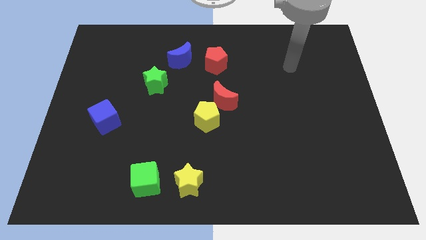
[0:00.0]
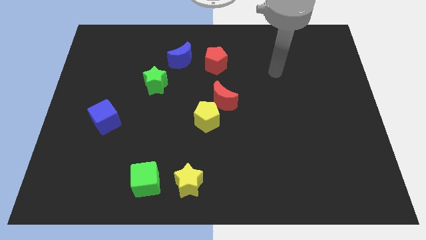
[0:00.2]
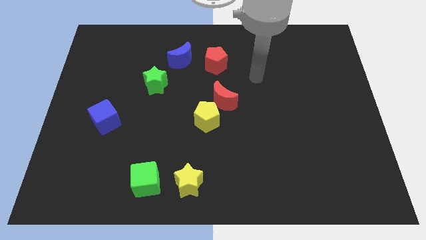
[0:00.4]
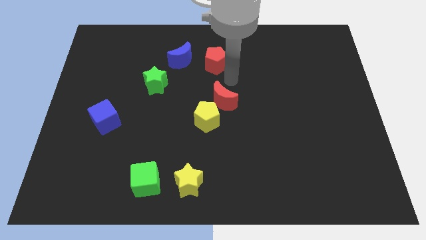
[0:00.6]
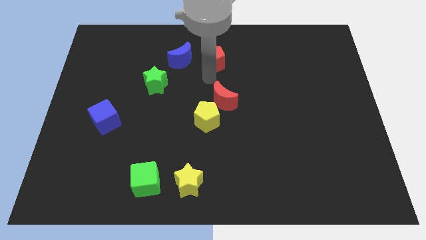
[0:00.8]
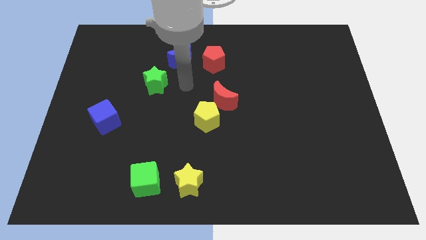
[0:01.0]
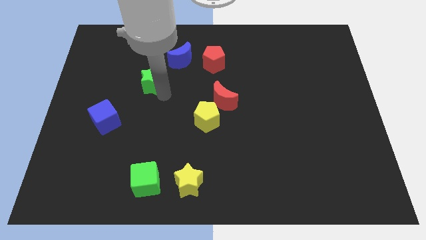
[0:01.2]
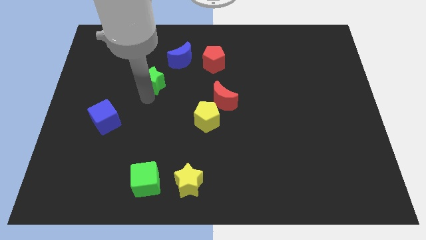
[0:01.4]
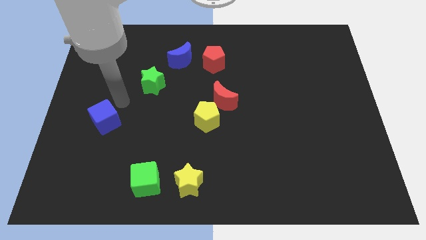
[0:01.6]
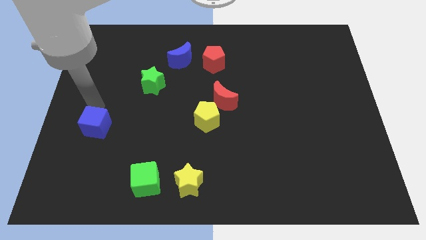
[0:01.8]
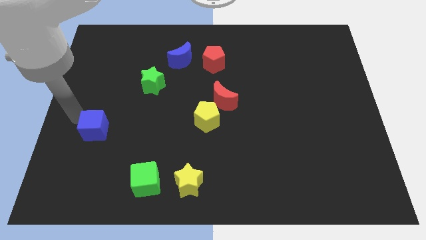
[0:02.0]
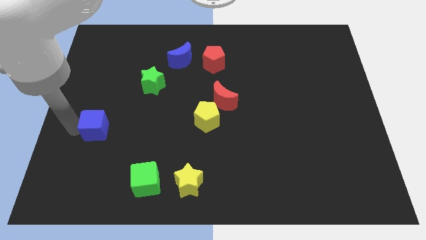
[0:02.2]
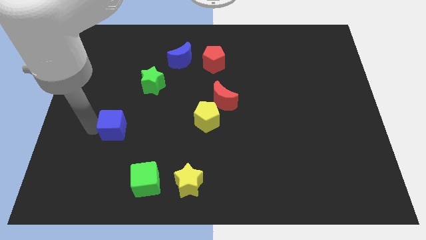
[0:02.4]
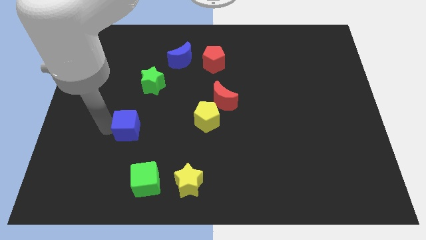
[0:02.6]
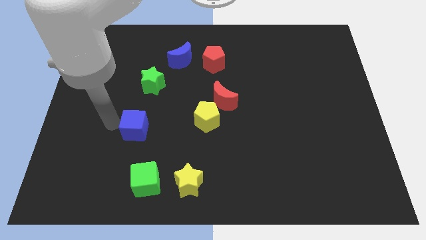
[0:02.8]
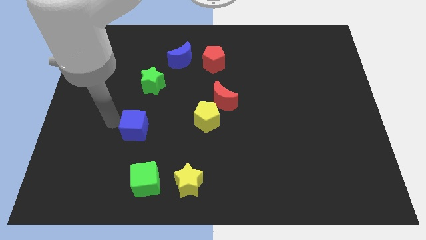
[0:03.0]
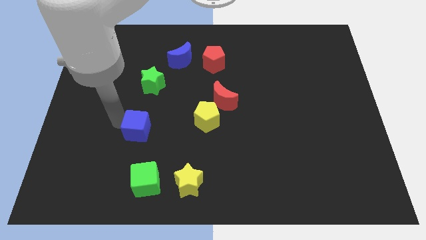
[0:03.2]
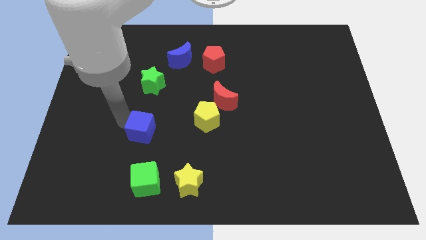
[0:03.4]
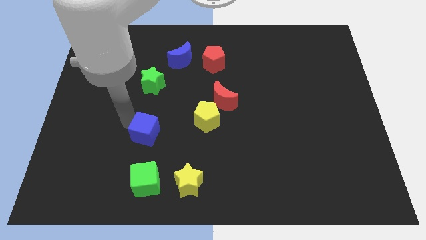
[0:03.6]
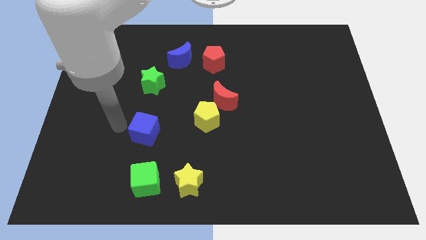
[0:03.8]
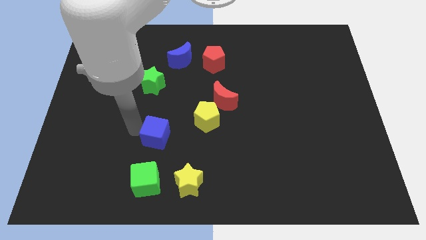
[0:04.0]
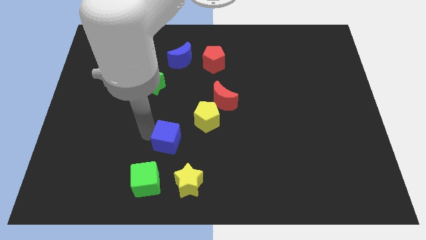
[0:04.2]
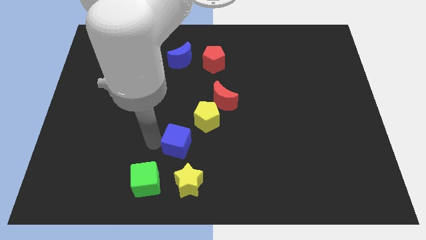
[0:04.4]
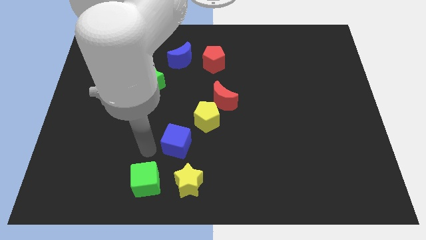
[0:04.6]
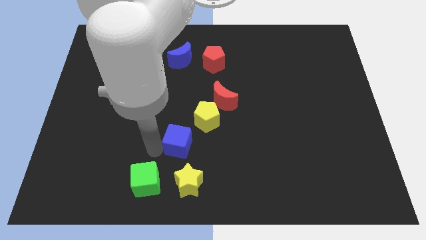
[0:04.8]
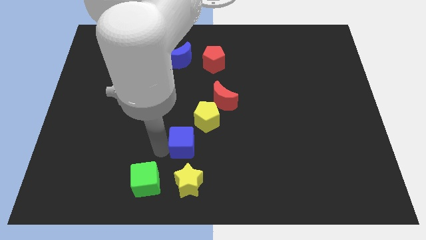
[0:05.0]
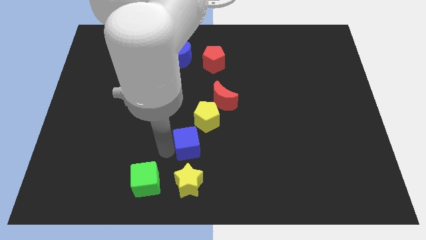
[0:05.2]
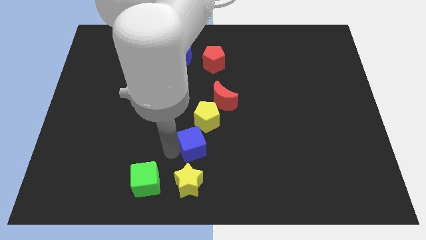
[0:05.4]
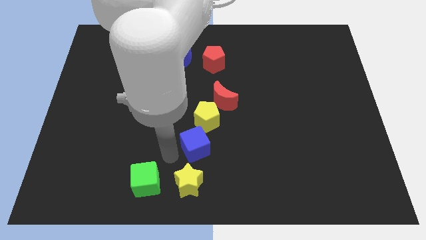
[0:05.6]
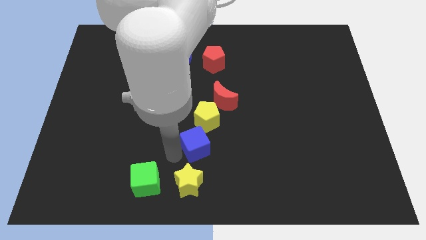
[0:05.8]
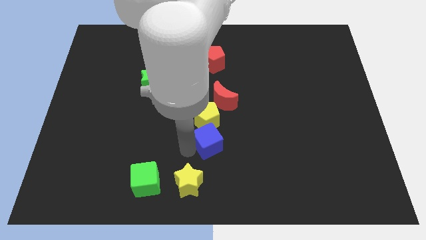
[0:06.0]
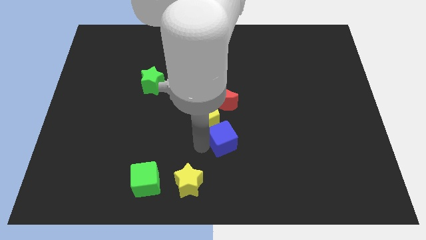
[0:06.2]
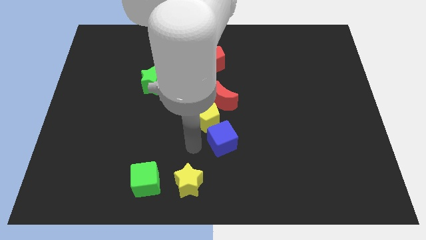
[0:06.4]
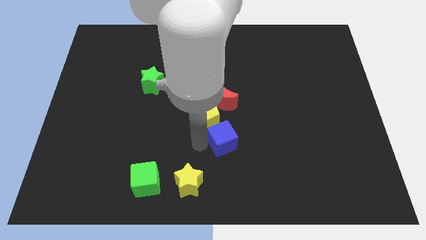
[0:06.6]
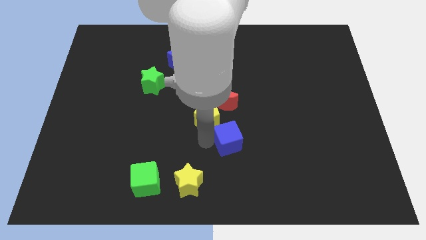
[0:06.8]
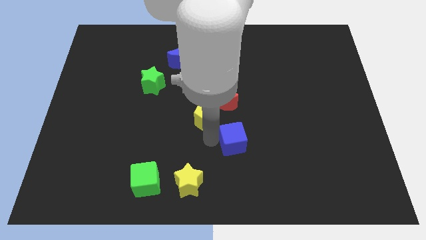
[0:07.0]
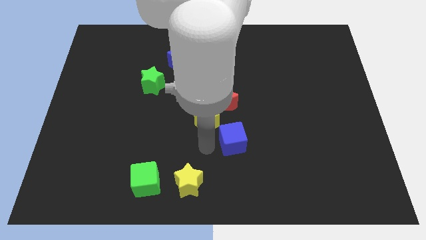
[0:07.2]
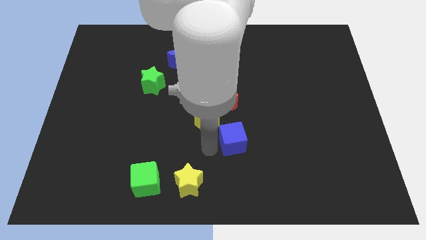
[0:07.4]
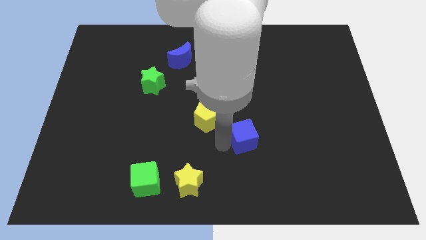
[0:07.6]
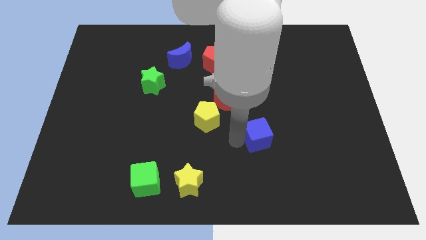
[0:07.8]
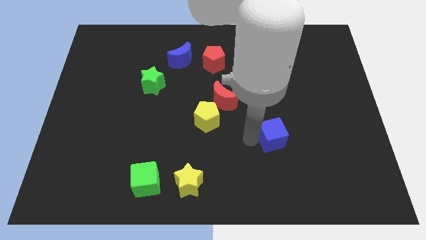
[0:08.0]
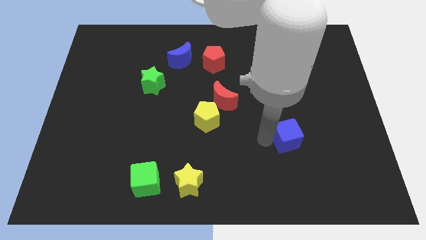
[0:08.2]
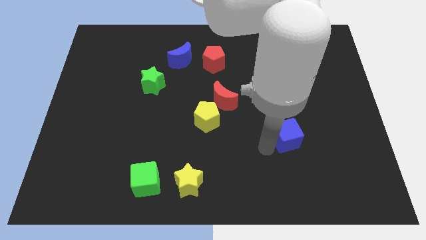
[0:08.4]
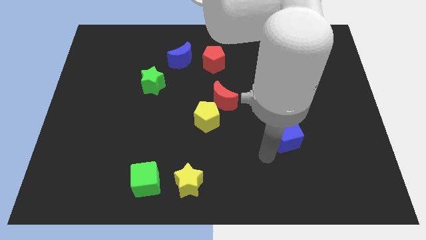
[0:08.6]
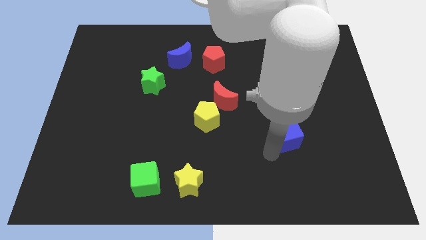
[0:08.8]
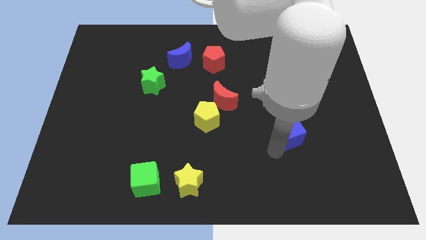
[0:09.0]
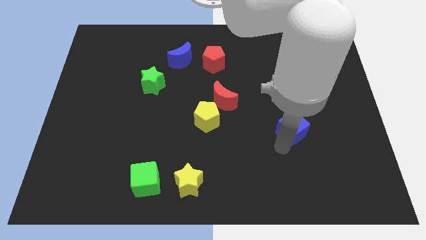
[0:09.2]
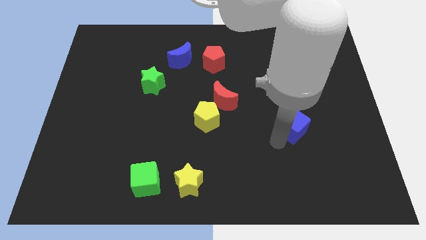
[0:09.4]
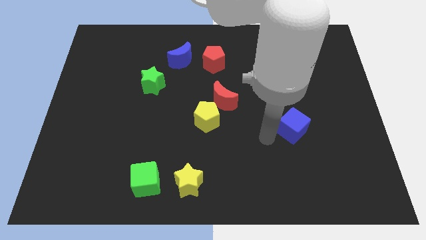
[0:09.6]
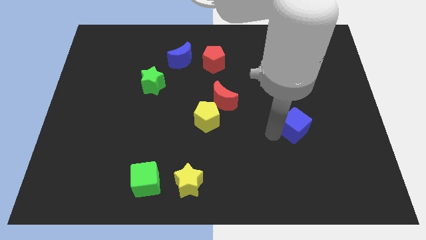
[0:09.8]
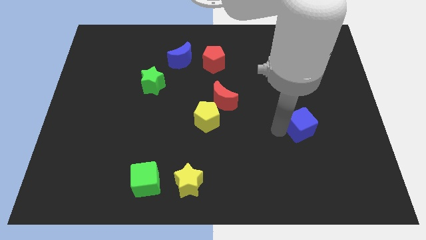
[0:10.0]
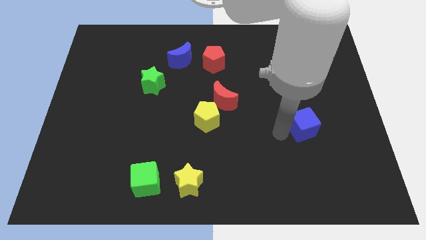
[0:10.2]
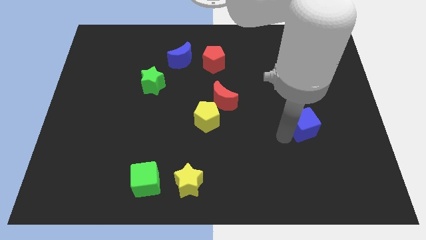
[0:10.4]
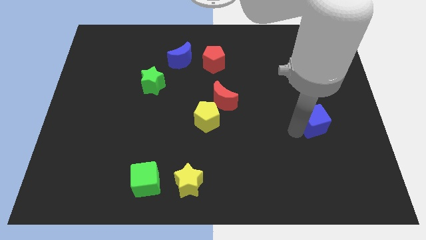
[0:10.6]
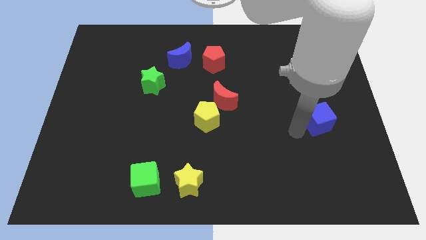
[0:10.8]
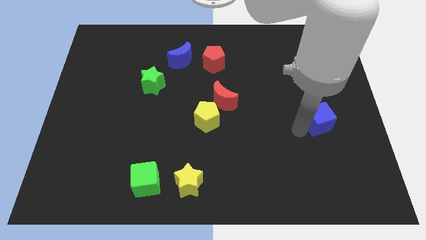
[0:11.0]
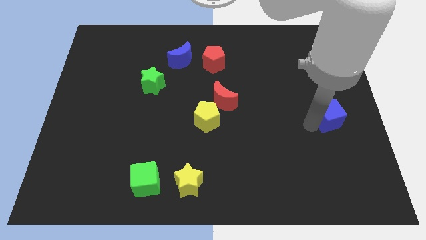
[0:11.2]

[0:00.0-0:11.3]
put the blue cube to the center right

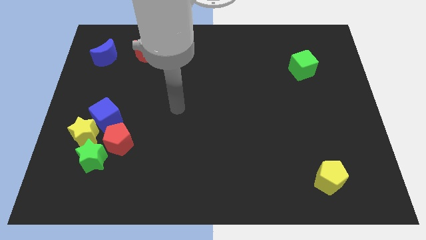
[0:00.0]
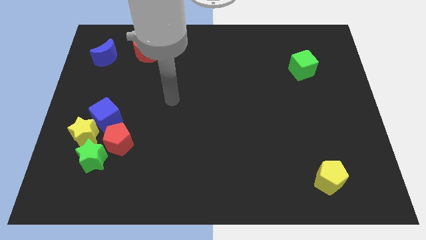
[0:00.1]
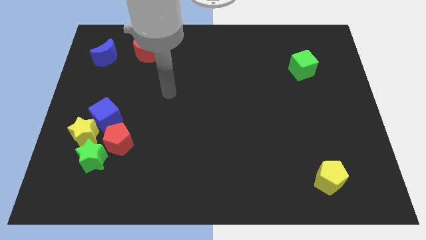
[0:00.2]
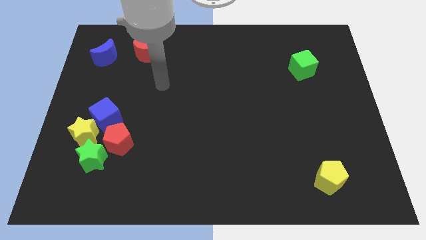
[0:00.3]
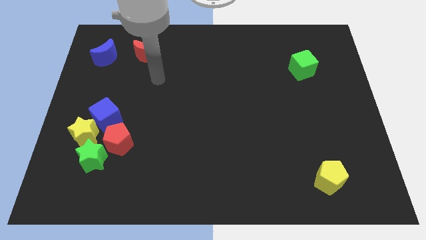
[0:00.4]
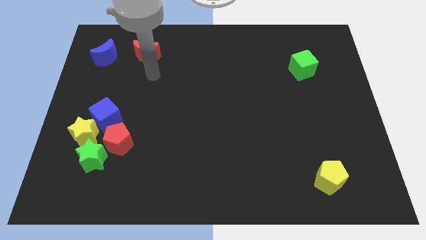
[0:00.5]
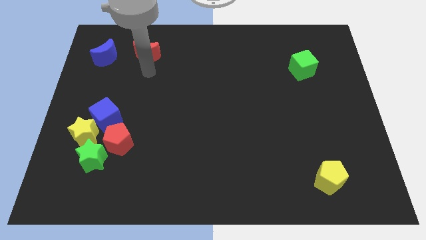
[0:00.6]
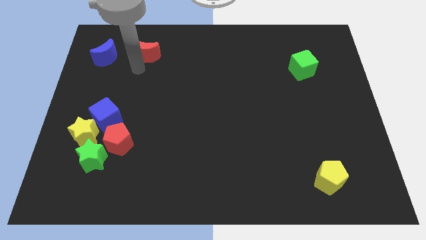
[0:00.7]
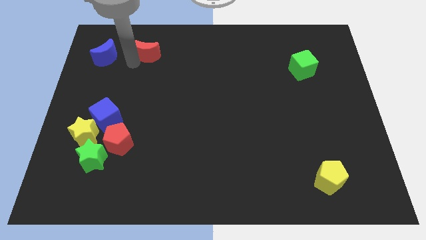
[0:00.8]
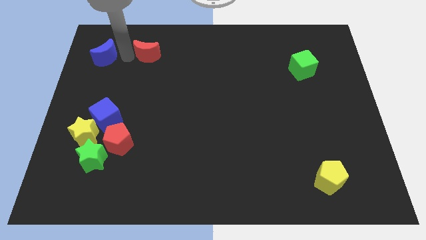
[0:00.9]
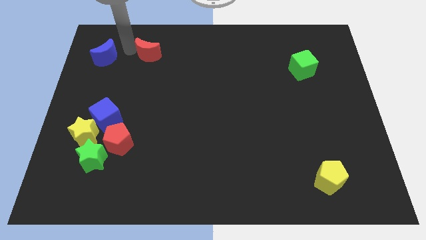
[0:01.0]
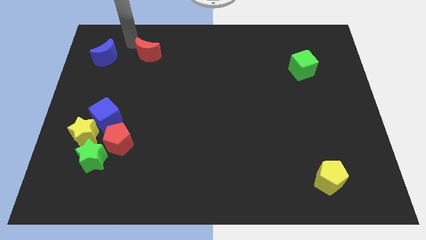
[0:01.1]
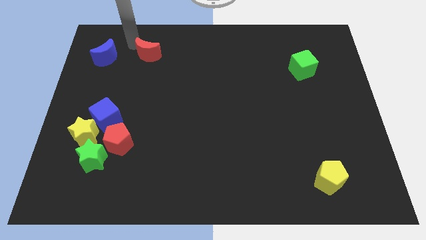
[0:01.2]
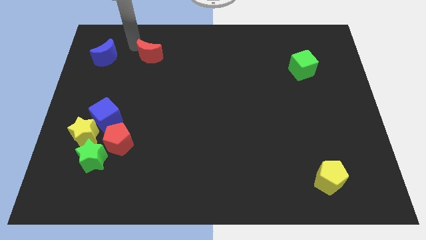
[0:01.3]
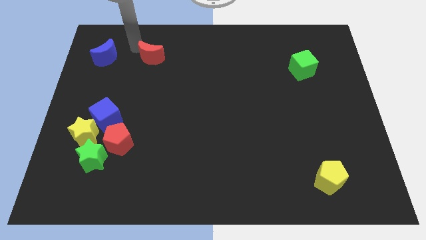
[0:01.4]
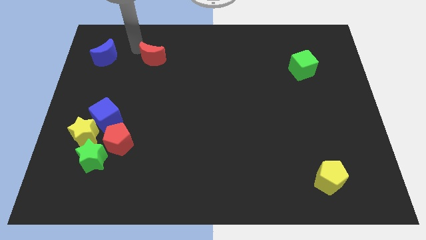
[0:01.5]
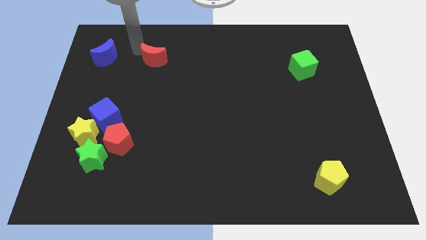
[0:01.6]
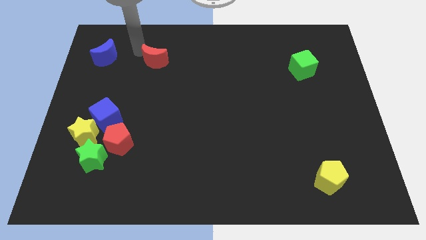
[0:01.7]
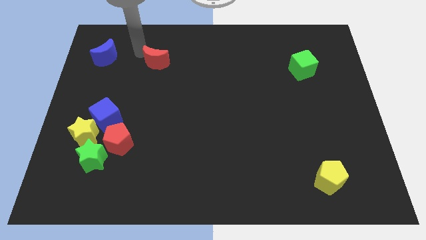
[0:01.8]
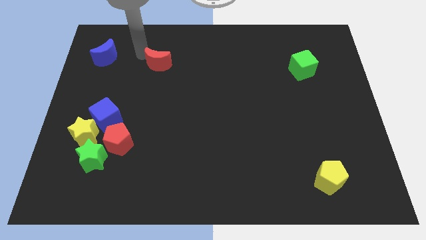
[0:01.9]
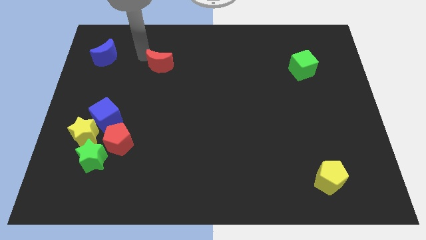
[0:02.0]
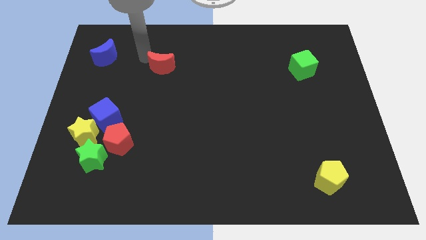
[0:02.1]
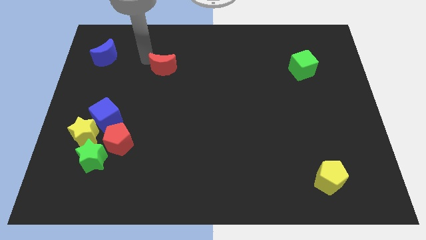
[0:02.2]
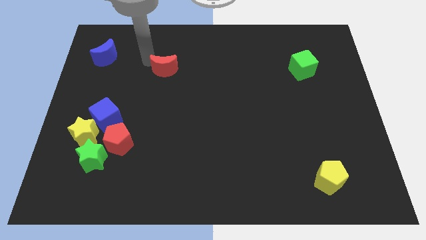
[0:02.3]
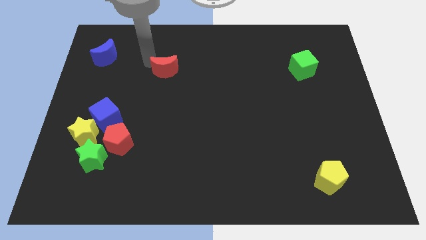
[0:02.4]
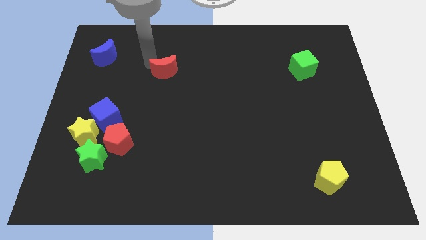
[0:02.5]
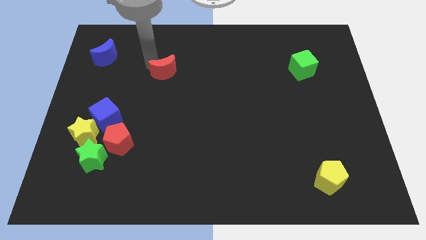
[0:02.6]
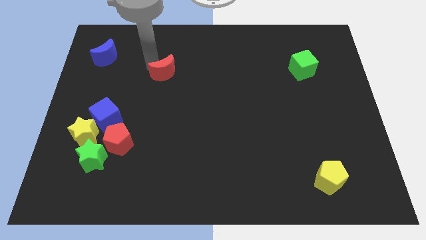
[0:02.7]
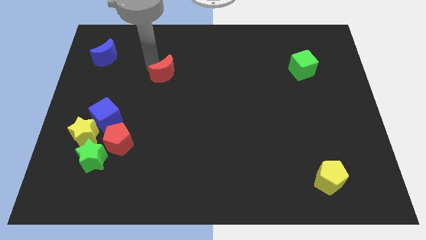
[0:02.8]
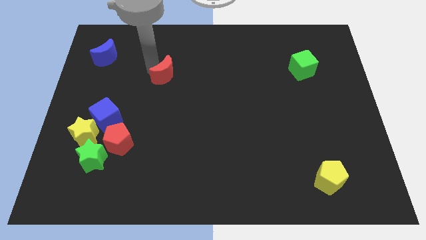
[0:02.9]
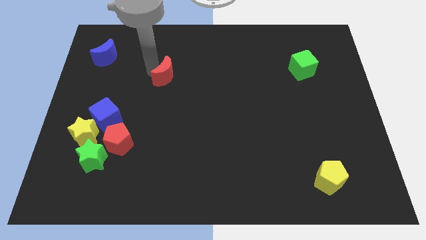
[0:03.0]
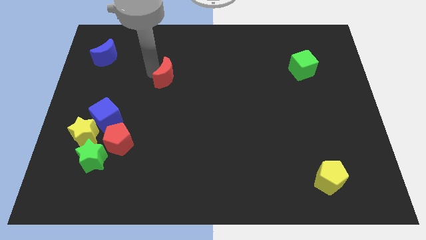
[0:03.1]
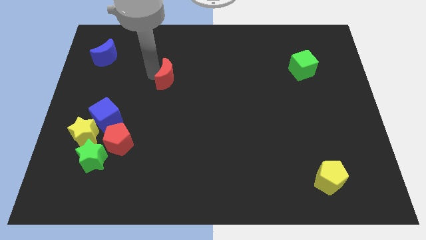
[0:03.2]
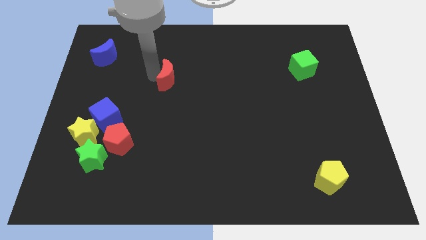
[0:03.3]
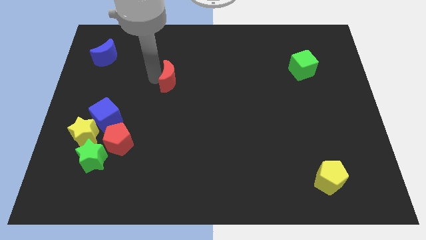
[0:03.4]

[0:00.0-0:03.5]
put the red moon to the center of the board
